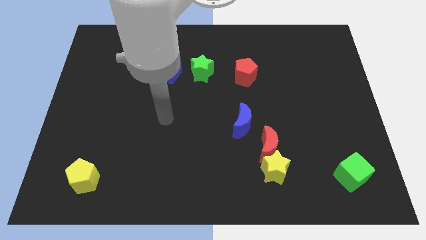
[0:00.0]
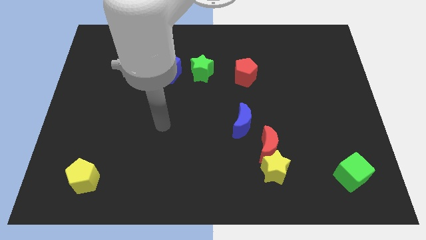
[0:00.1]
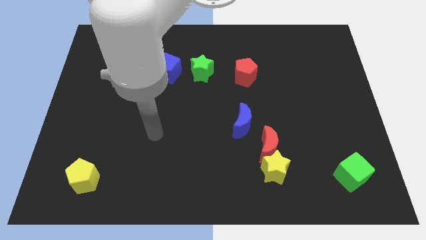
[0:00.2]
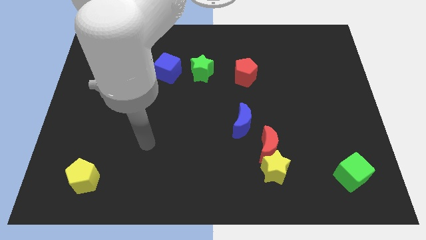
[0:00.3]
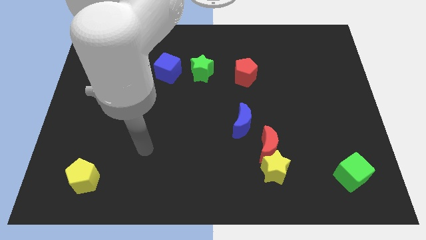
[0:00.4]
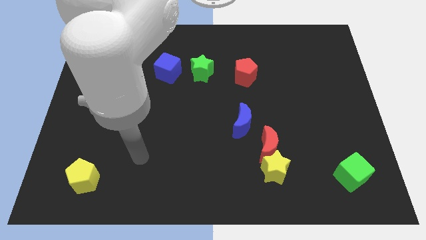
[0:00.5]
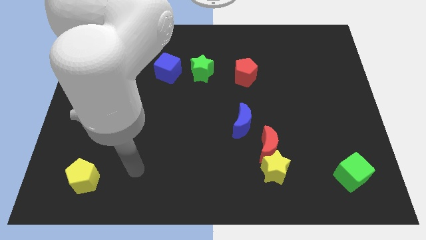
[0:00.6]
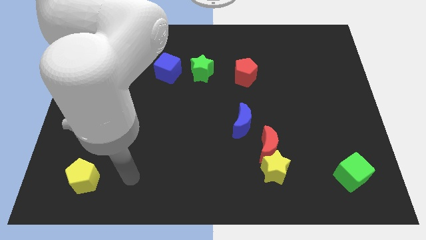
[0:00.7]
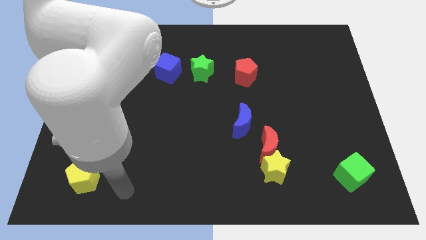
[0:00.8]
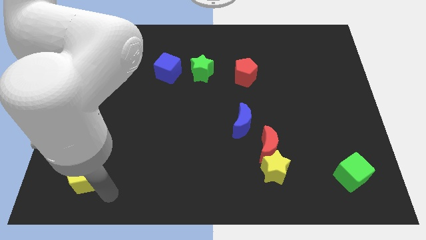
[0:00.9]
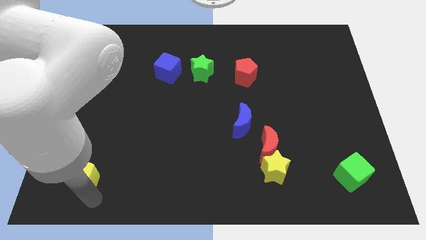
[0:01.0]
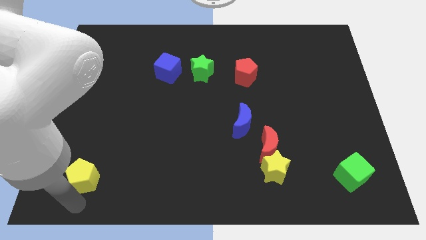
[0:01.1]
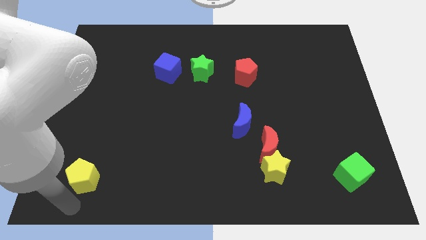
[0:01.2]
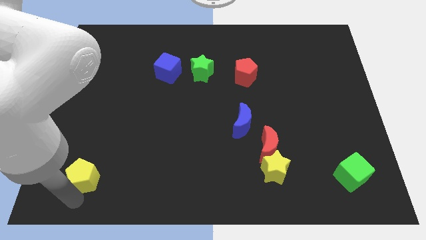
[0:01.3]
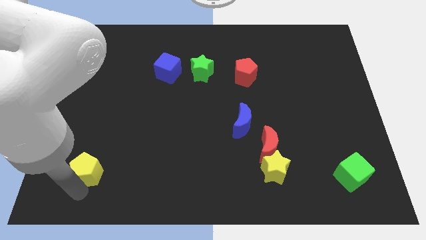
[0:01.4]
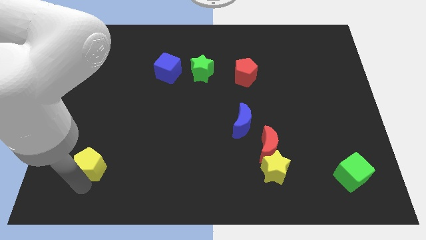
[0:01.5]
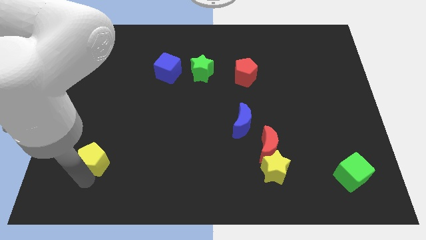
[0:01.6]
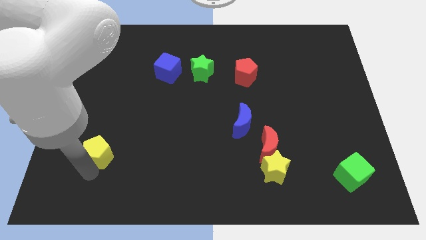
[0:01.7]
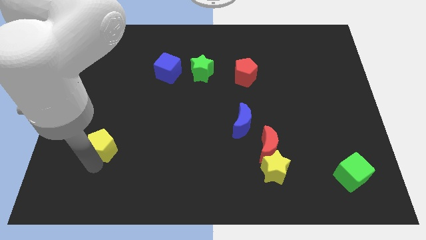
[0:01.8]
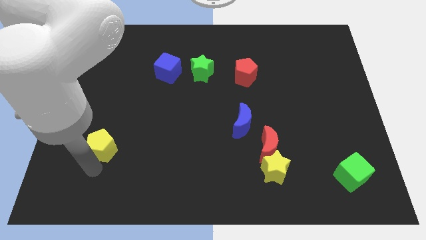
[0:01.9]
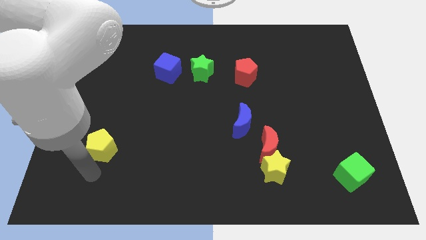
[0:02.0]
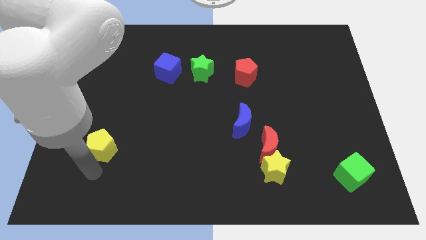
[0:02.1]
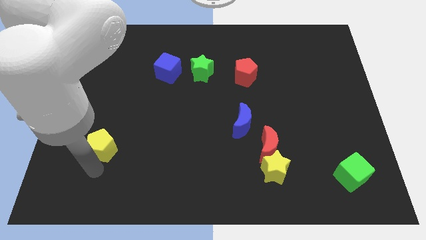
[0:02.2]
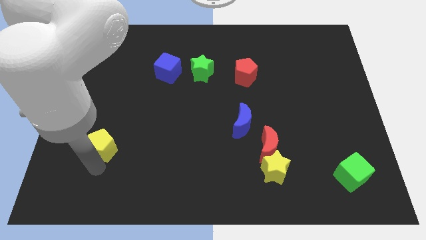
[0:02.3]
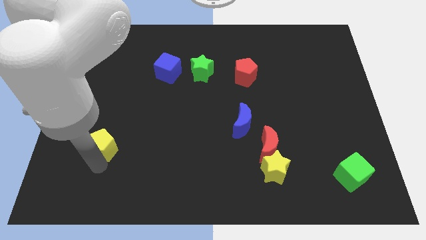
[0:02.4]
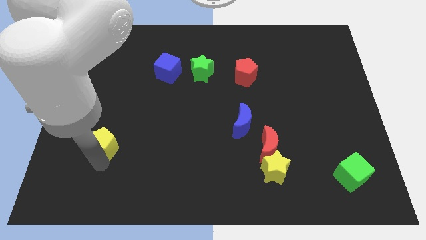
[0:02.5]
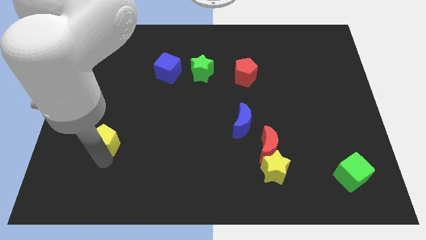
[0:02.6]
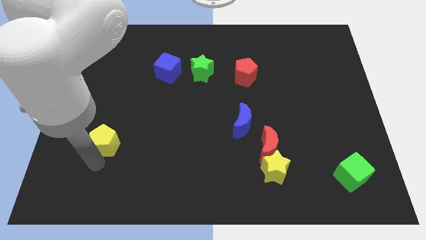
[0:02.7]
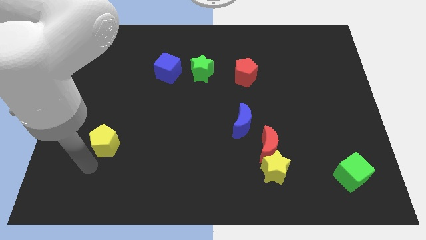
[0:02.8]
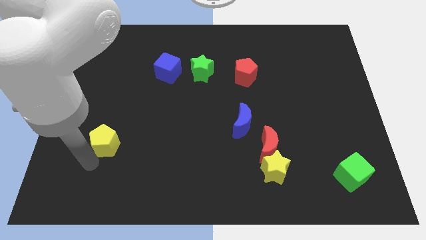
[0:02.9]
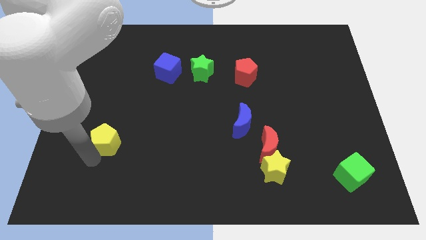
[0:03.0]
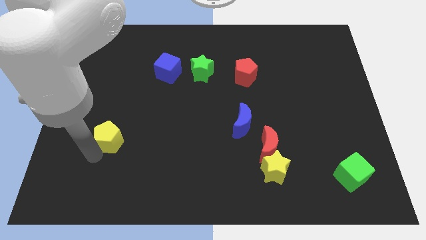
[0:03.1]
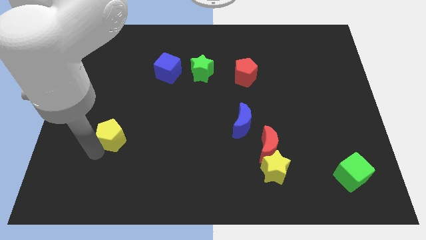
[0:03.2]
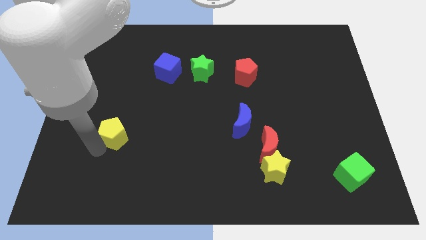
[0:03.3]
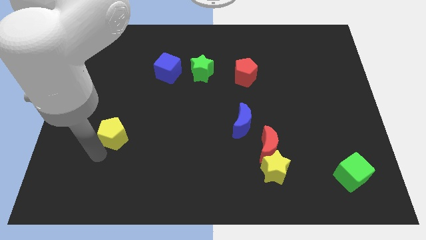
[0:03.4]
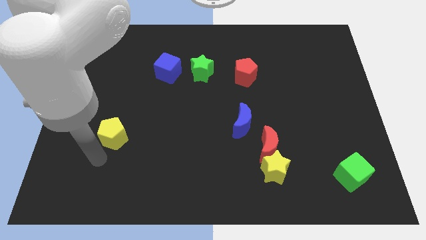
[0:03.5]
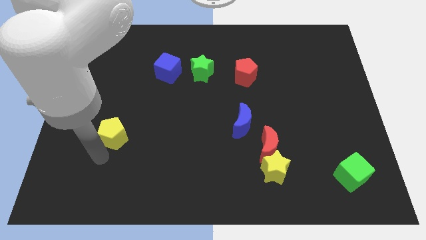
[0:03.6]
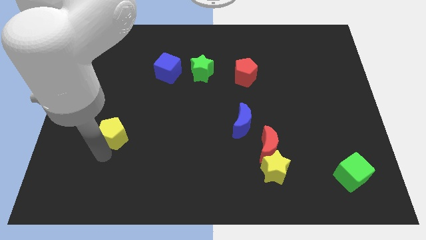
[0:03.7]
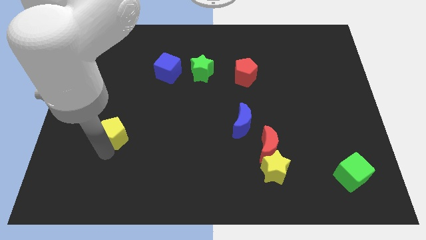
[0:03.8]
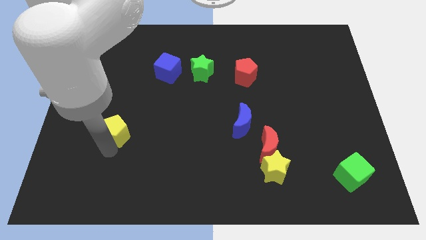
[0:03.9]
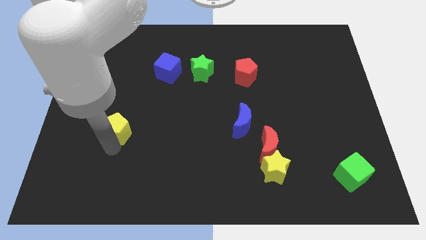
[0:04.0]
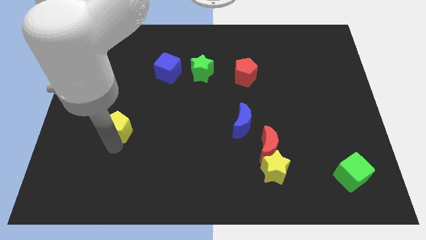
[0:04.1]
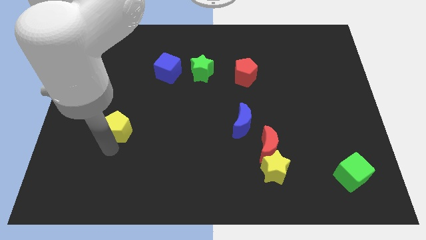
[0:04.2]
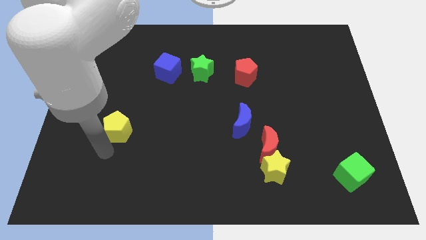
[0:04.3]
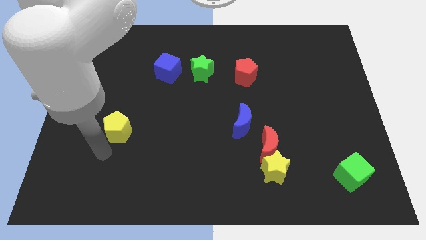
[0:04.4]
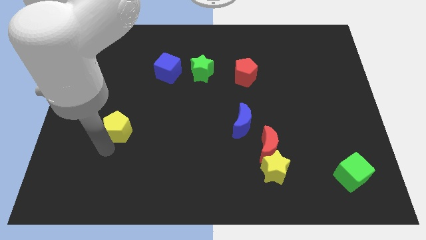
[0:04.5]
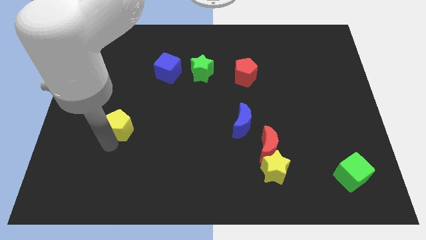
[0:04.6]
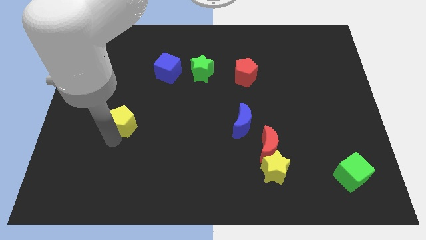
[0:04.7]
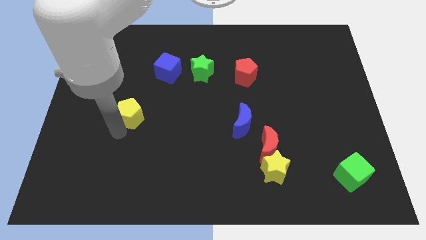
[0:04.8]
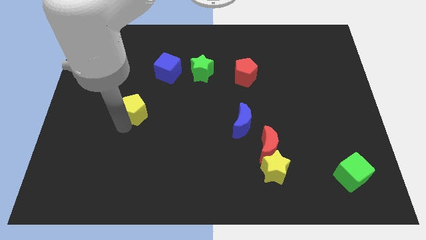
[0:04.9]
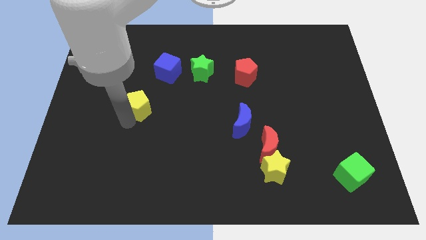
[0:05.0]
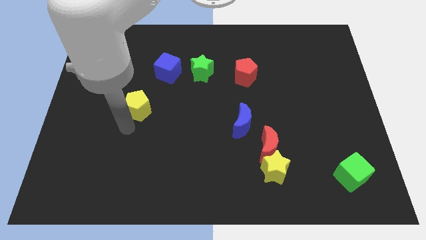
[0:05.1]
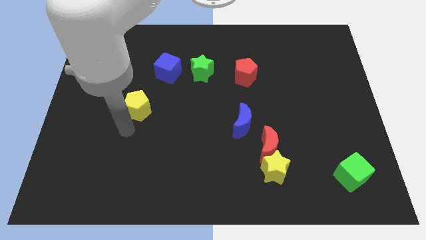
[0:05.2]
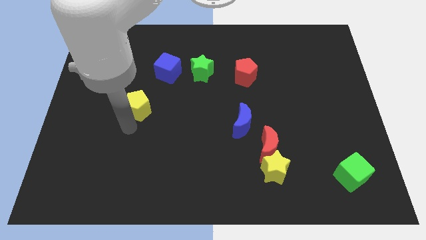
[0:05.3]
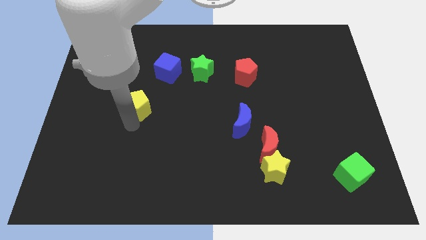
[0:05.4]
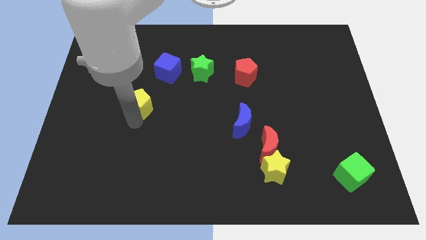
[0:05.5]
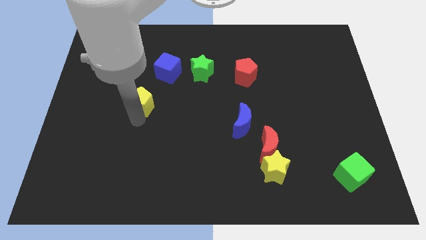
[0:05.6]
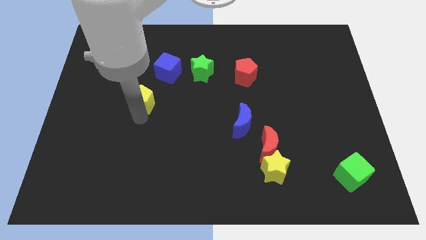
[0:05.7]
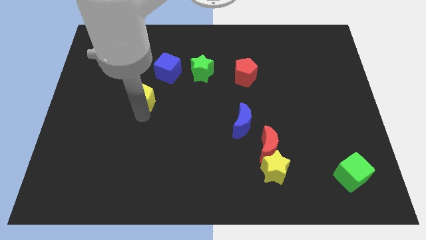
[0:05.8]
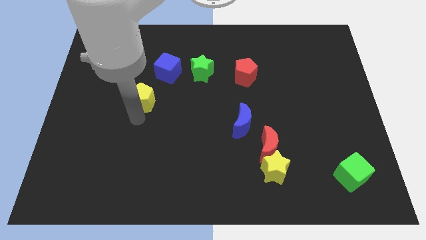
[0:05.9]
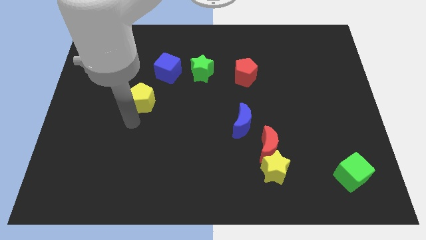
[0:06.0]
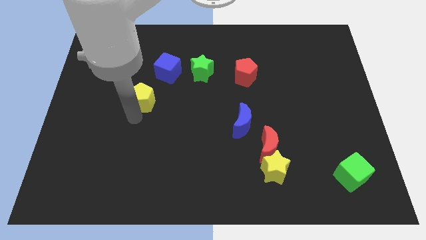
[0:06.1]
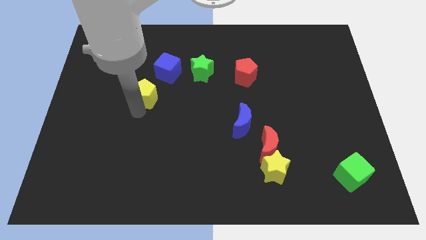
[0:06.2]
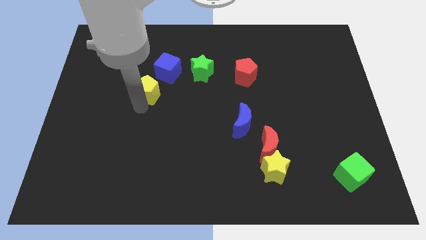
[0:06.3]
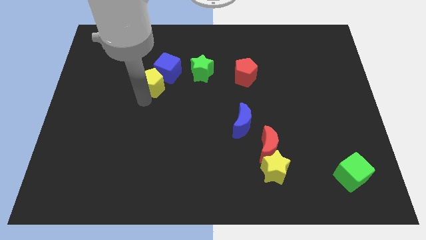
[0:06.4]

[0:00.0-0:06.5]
slide the yellow pentagon close to the blue cube
